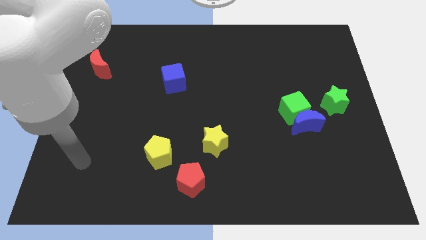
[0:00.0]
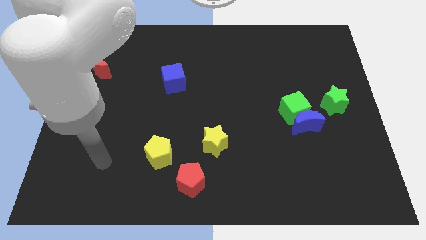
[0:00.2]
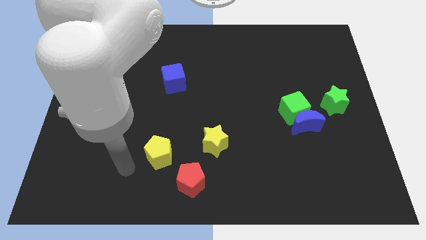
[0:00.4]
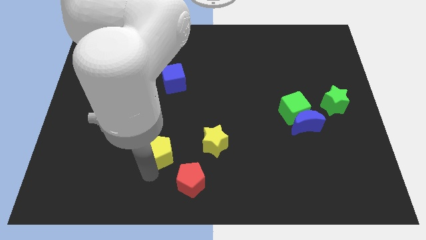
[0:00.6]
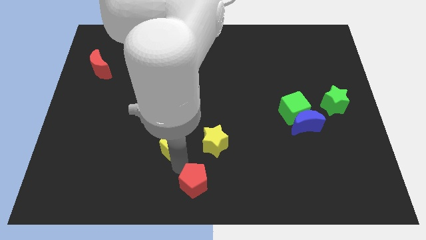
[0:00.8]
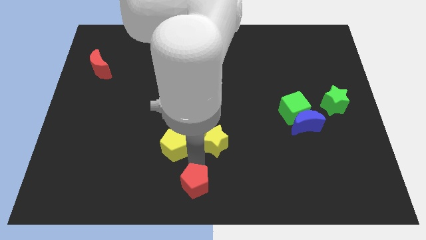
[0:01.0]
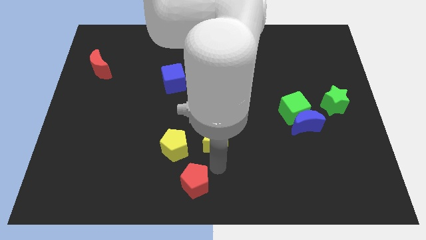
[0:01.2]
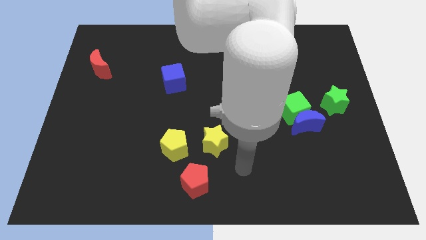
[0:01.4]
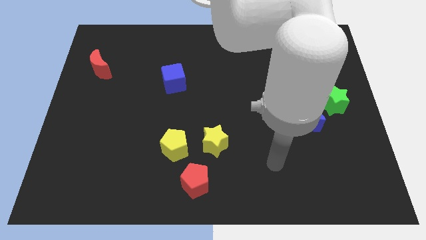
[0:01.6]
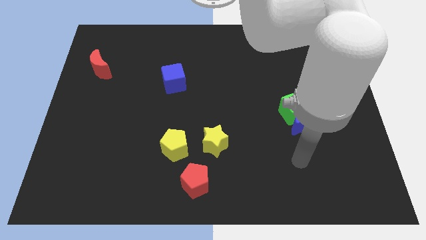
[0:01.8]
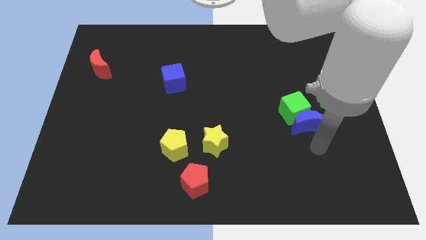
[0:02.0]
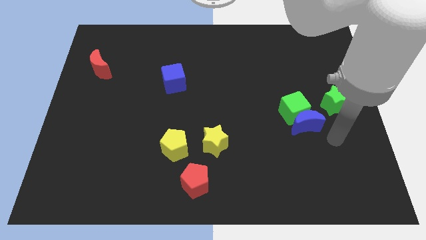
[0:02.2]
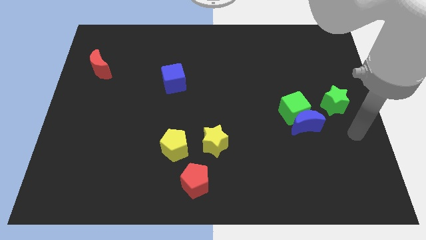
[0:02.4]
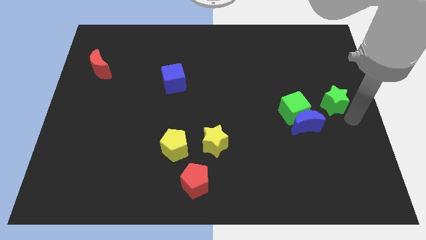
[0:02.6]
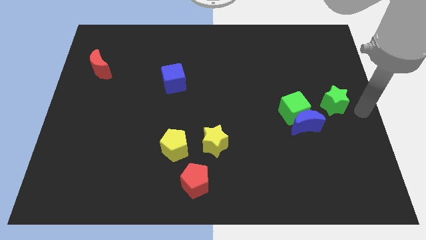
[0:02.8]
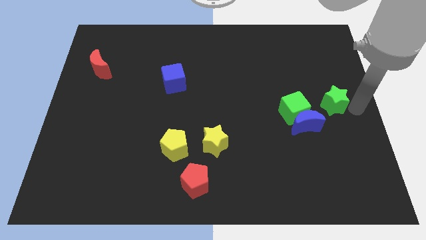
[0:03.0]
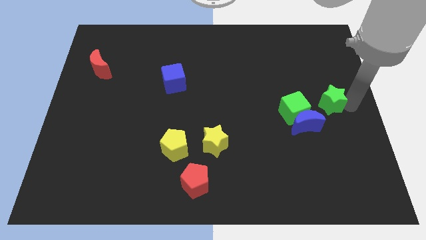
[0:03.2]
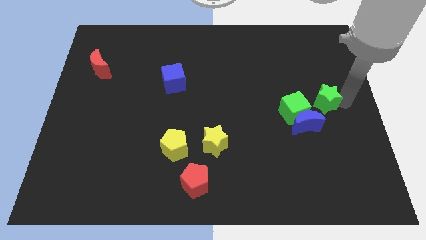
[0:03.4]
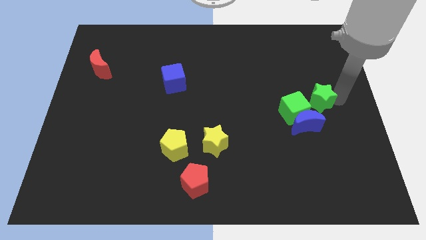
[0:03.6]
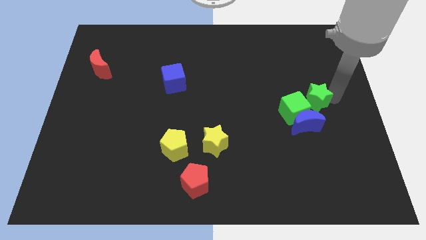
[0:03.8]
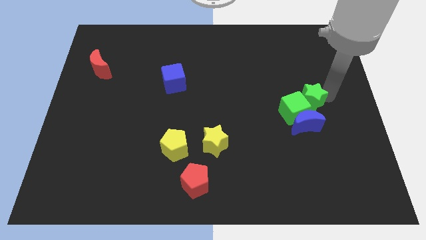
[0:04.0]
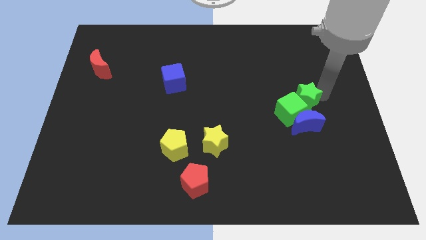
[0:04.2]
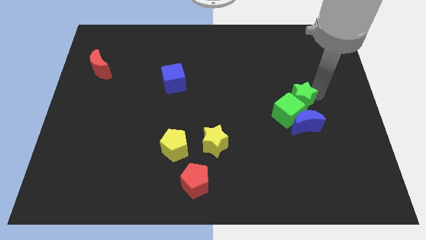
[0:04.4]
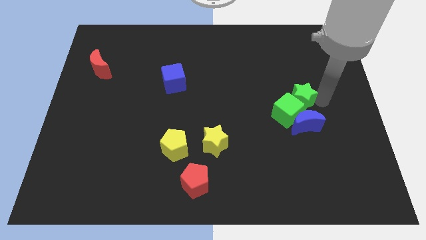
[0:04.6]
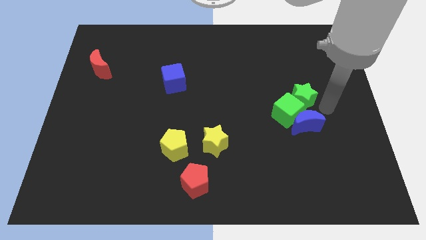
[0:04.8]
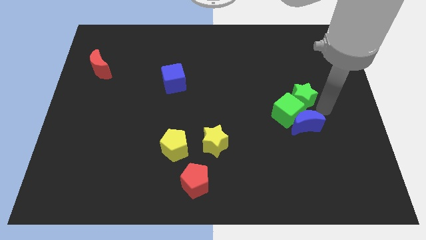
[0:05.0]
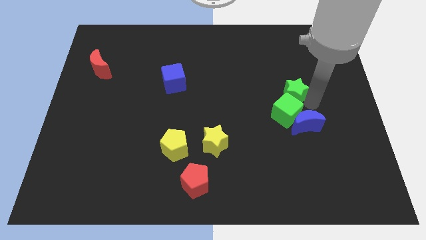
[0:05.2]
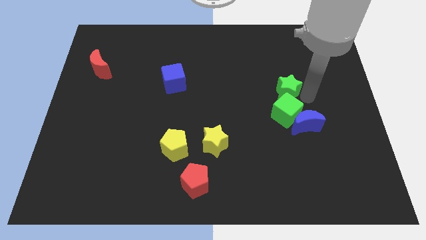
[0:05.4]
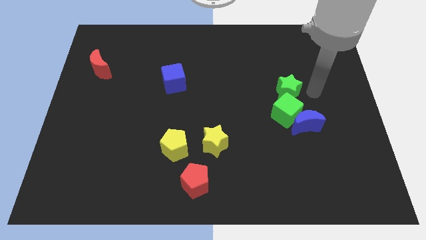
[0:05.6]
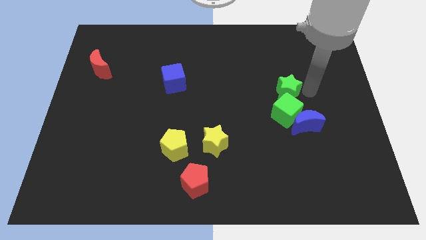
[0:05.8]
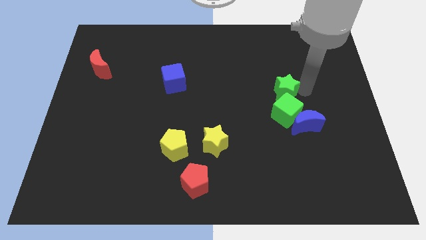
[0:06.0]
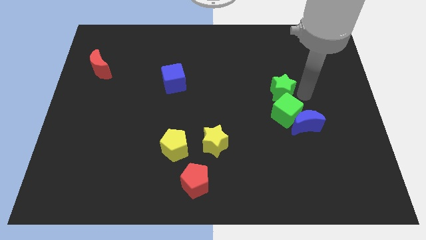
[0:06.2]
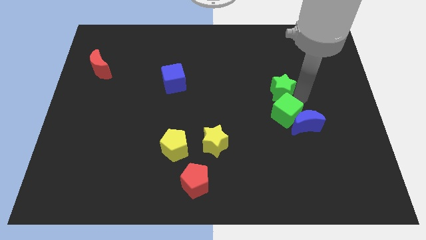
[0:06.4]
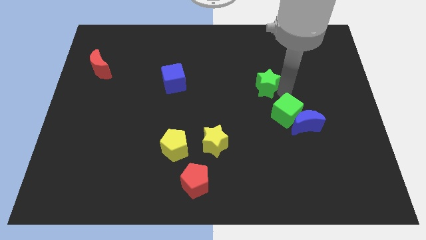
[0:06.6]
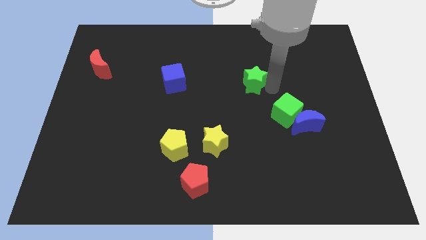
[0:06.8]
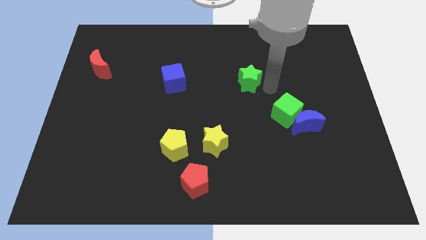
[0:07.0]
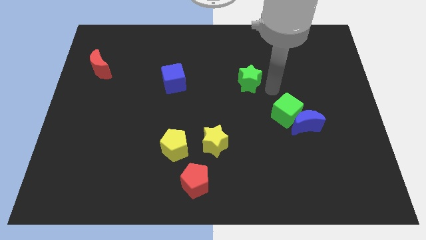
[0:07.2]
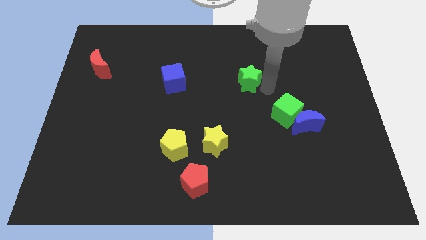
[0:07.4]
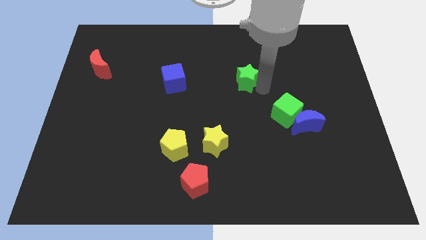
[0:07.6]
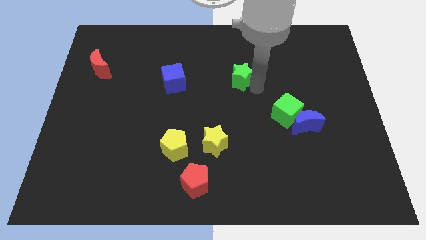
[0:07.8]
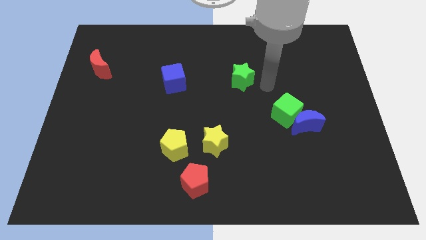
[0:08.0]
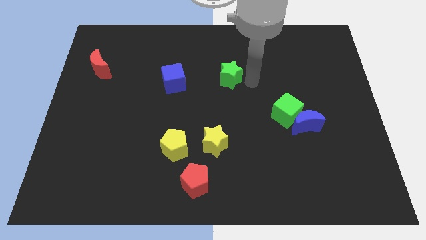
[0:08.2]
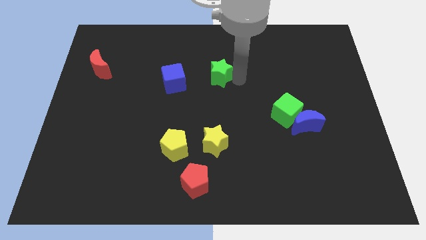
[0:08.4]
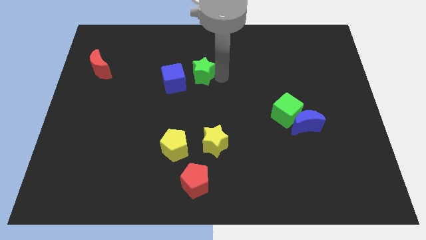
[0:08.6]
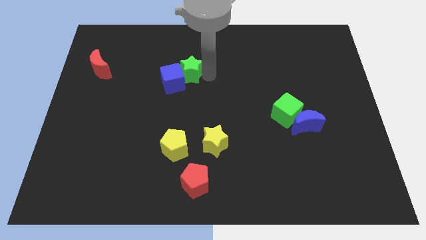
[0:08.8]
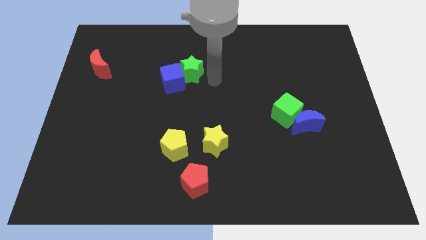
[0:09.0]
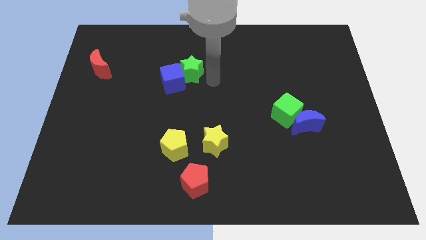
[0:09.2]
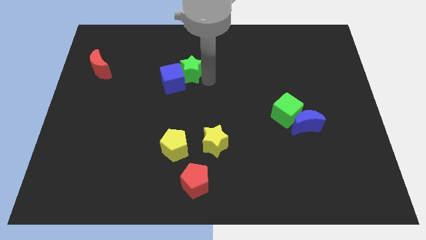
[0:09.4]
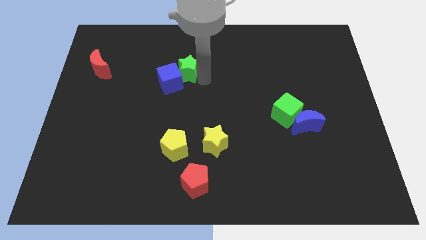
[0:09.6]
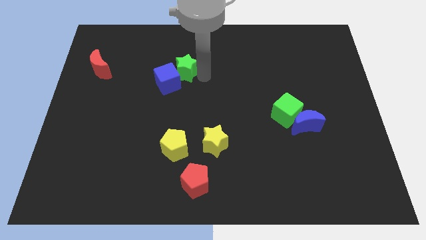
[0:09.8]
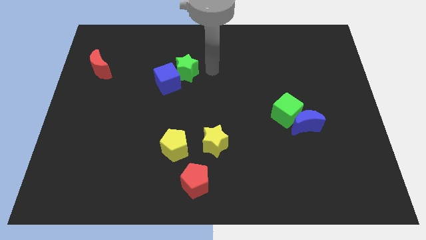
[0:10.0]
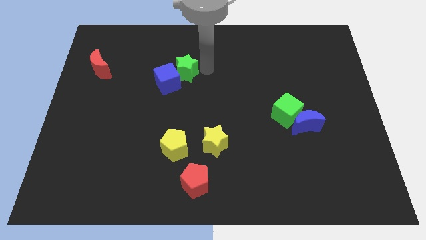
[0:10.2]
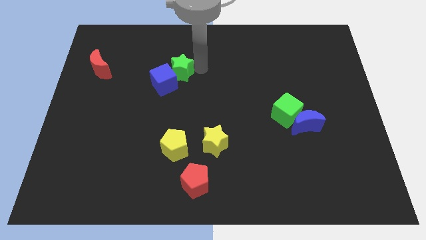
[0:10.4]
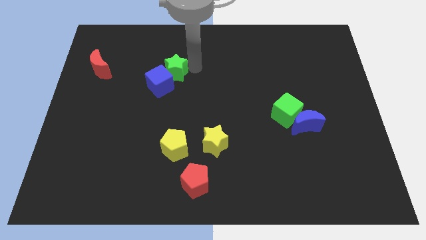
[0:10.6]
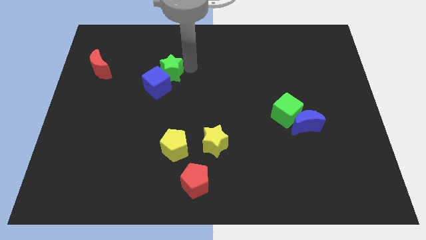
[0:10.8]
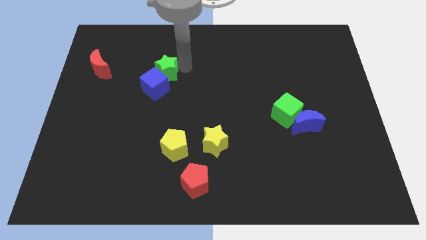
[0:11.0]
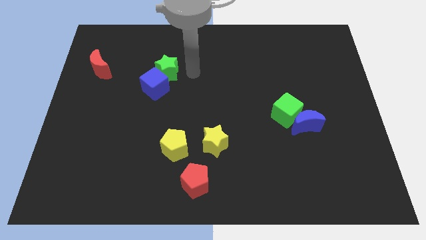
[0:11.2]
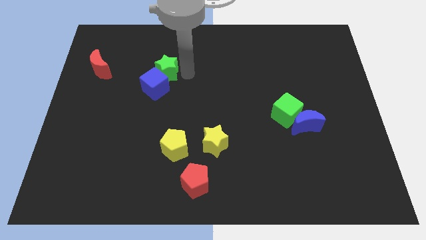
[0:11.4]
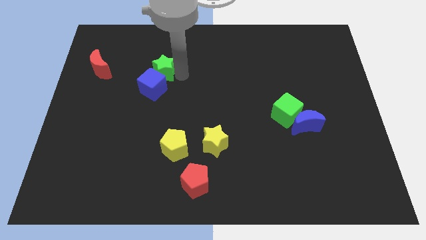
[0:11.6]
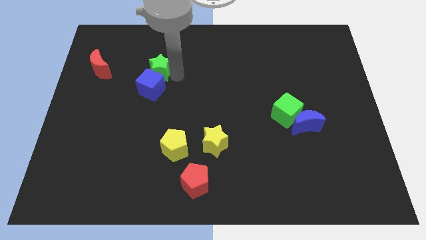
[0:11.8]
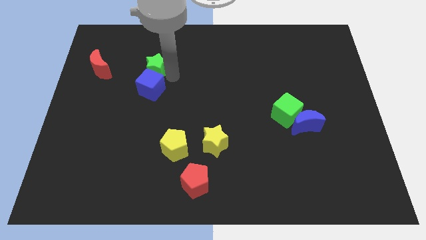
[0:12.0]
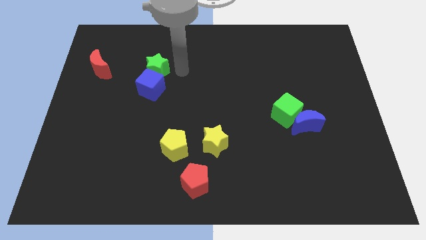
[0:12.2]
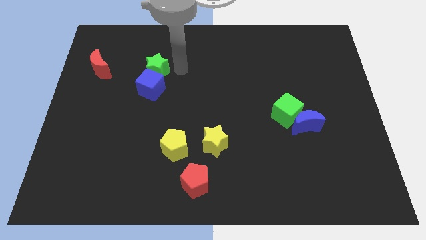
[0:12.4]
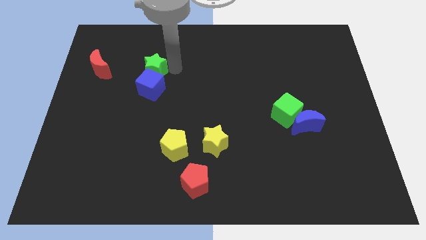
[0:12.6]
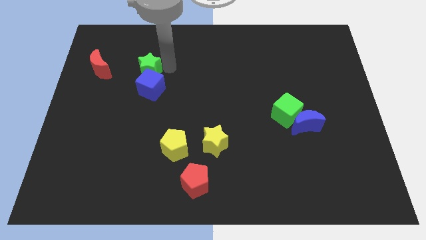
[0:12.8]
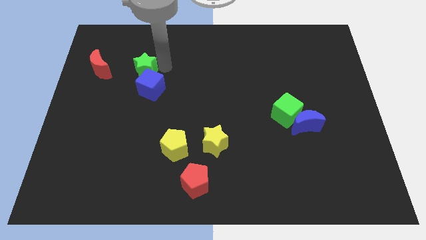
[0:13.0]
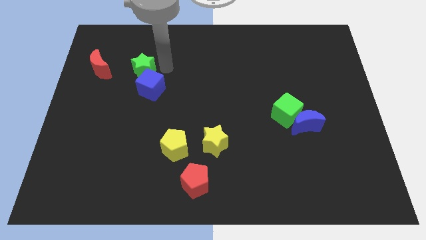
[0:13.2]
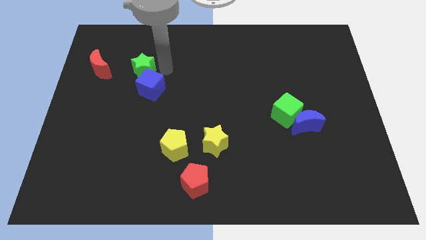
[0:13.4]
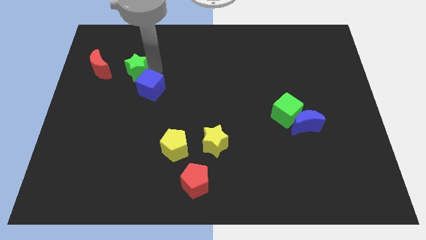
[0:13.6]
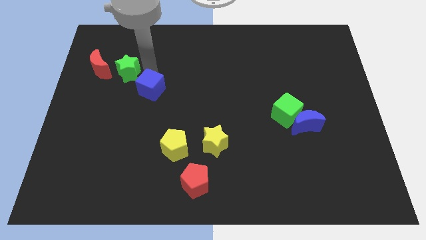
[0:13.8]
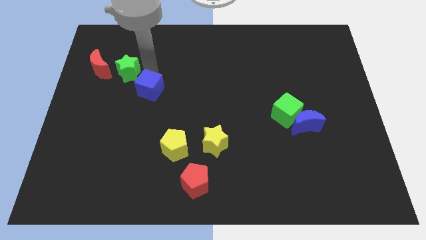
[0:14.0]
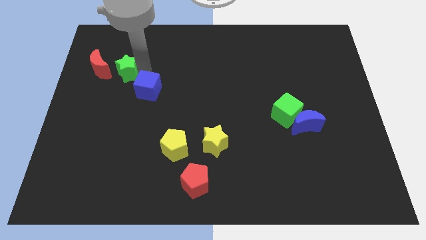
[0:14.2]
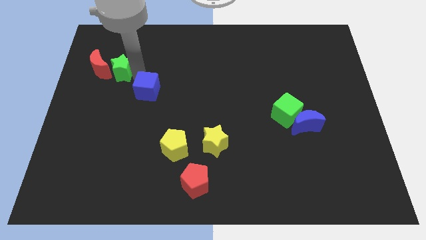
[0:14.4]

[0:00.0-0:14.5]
push the green star to the red moon

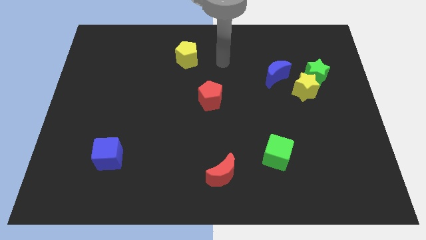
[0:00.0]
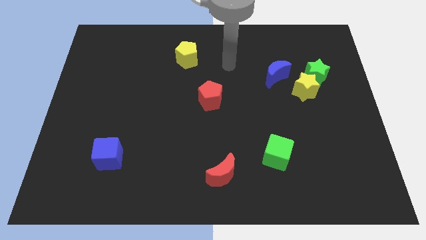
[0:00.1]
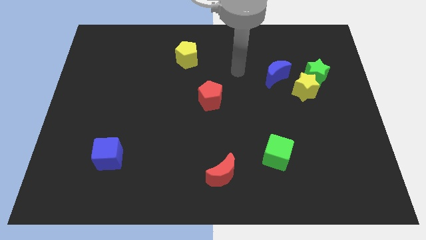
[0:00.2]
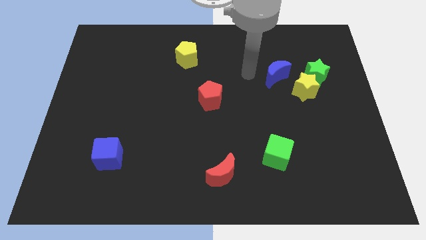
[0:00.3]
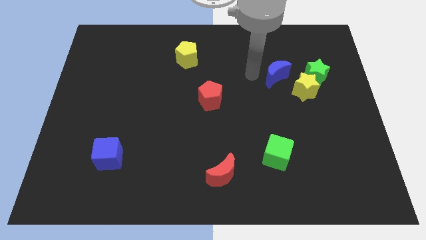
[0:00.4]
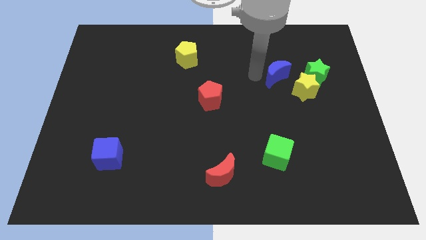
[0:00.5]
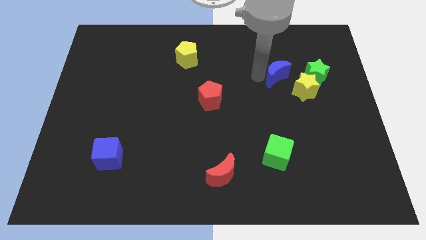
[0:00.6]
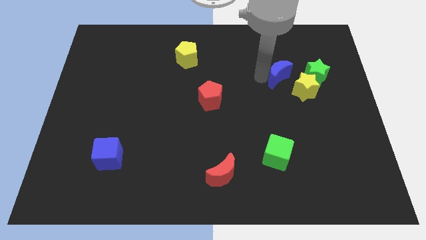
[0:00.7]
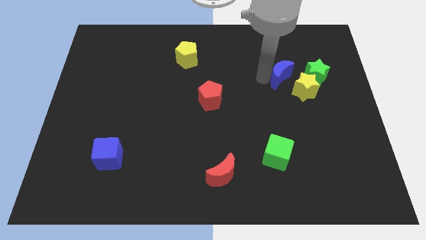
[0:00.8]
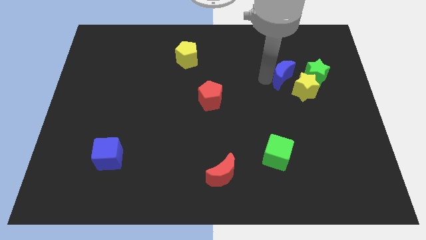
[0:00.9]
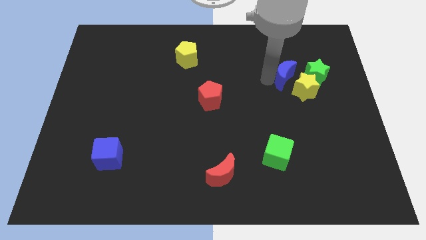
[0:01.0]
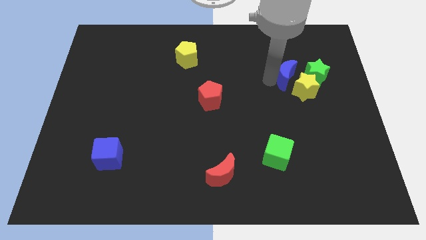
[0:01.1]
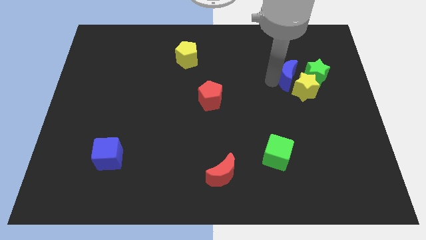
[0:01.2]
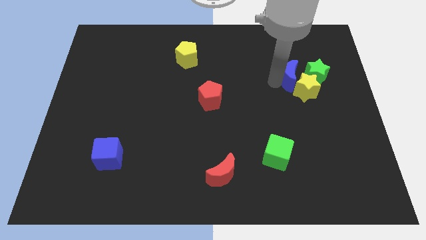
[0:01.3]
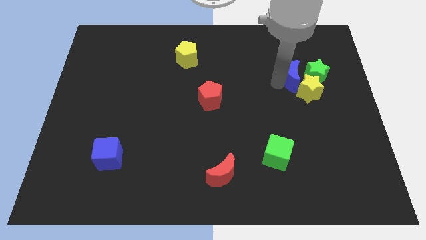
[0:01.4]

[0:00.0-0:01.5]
slide the blue moon next to the green star
